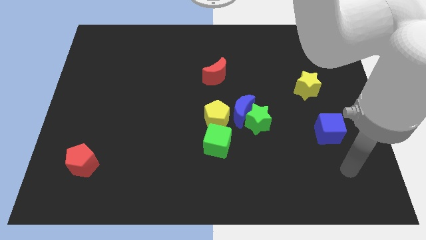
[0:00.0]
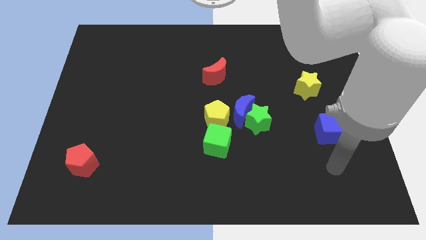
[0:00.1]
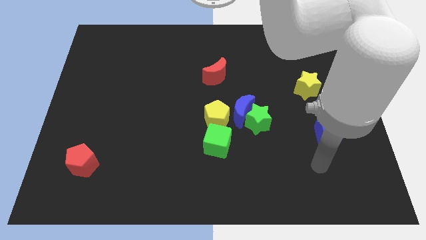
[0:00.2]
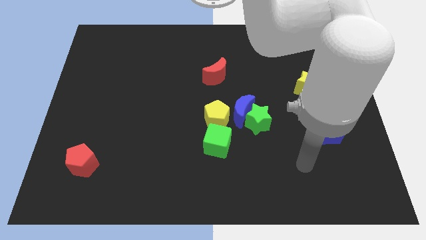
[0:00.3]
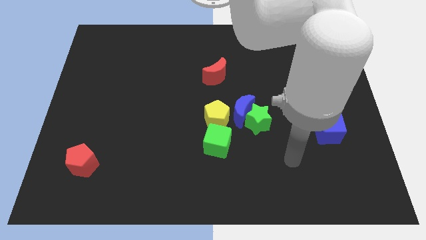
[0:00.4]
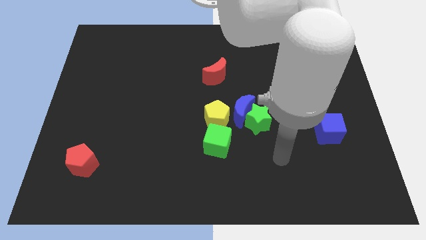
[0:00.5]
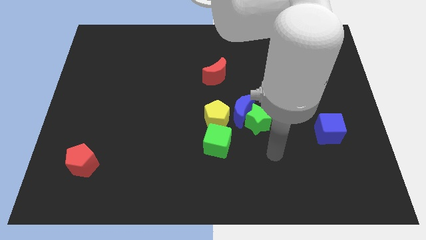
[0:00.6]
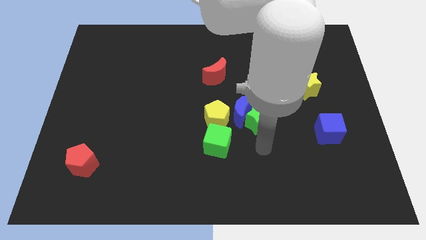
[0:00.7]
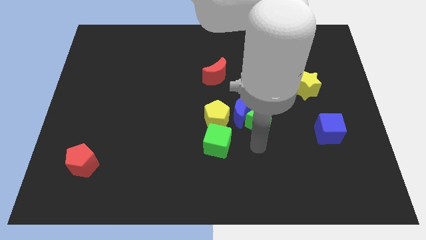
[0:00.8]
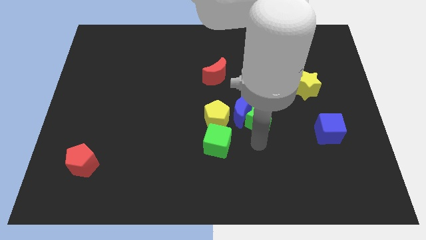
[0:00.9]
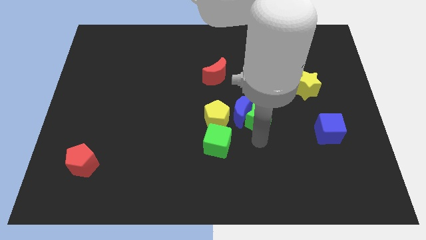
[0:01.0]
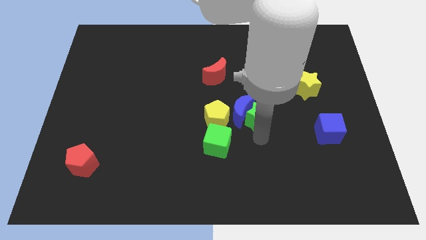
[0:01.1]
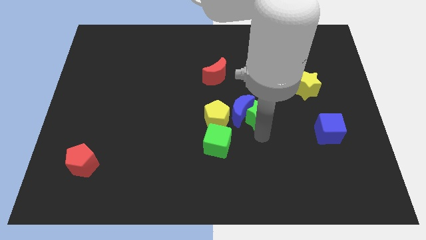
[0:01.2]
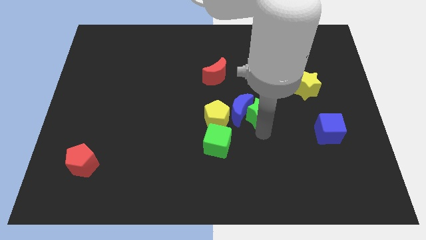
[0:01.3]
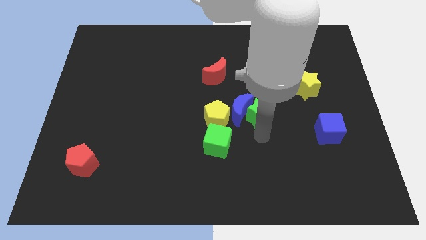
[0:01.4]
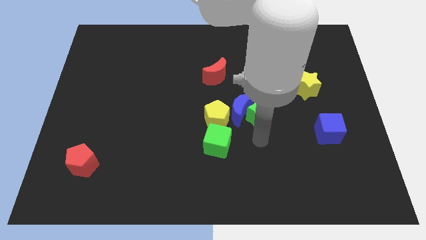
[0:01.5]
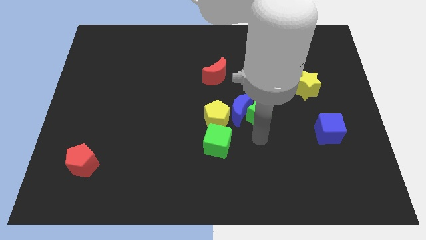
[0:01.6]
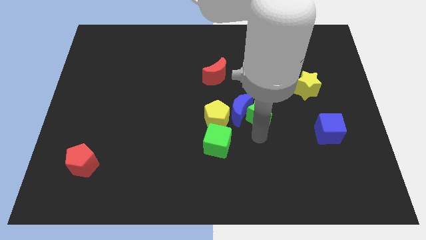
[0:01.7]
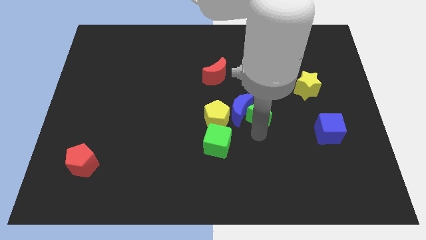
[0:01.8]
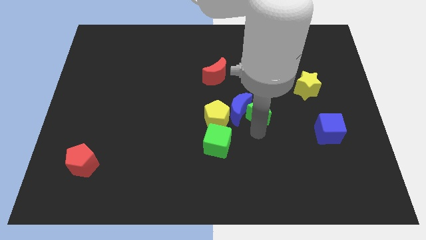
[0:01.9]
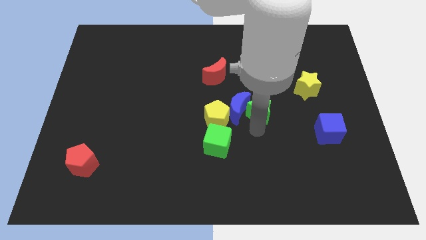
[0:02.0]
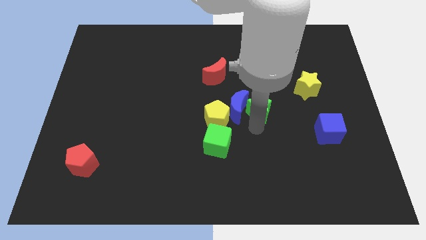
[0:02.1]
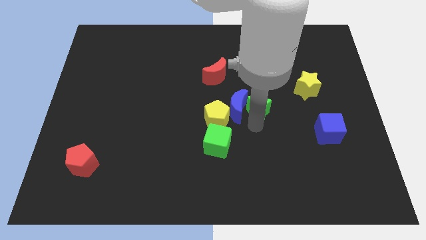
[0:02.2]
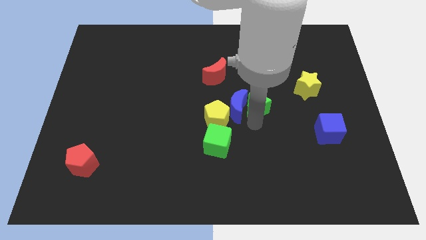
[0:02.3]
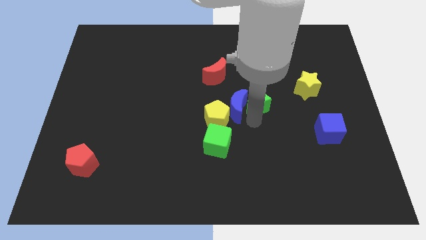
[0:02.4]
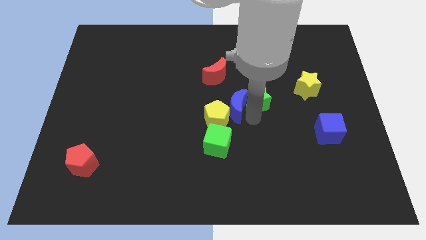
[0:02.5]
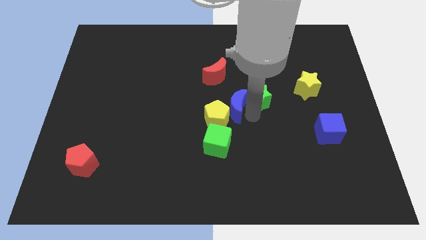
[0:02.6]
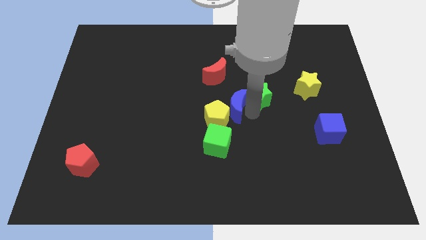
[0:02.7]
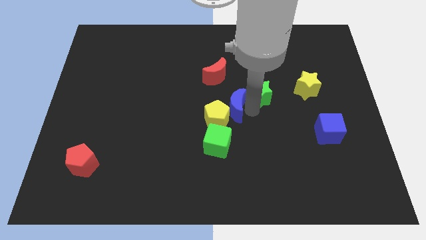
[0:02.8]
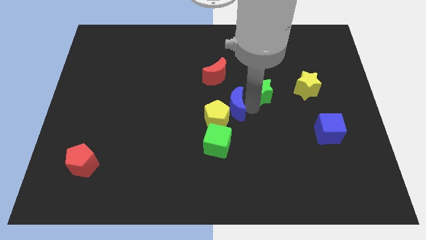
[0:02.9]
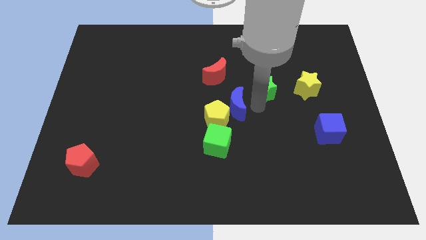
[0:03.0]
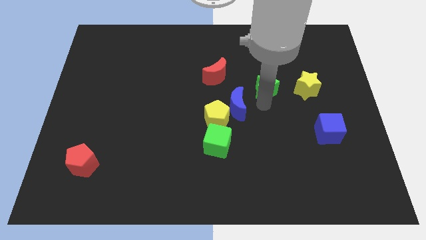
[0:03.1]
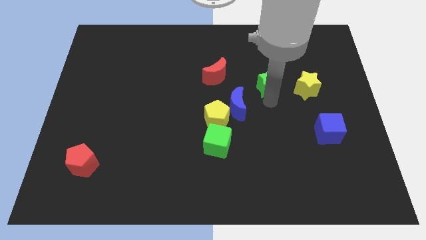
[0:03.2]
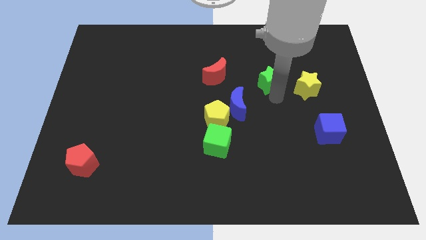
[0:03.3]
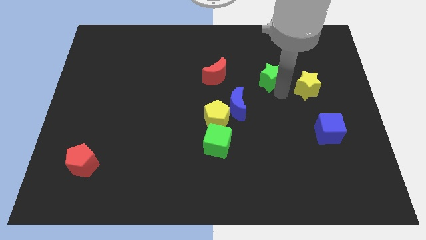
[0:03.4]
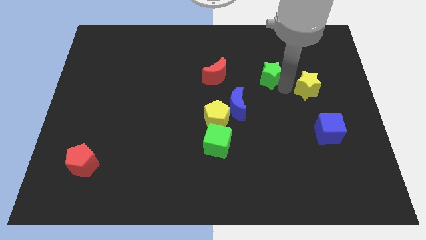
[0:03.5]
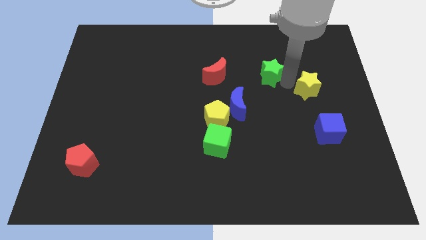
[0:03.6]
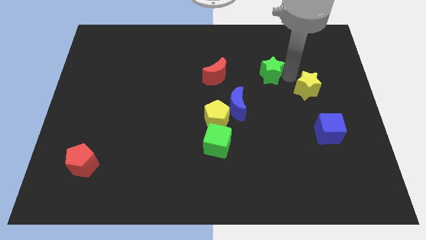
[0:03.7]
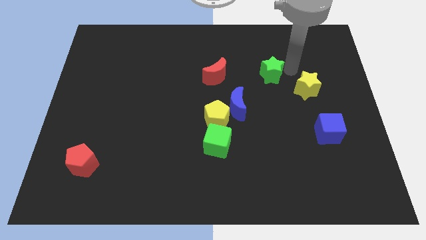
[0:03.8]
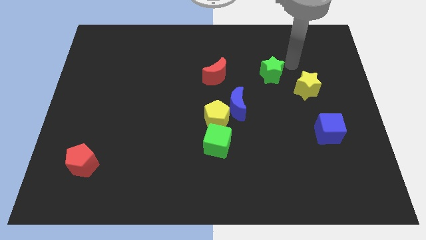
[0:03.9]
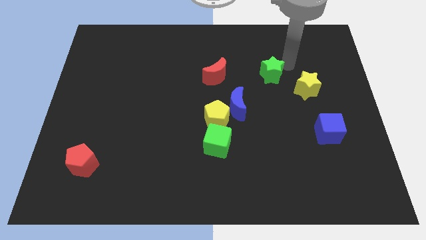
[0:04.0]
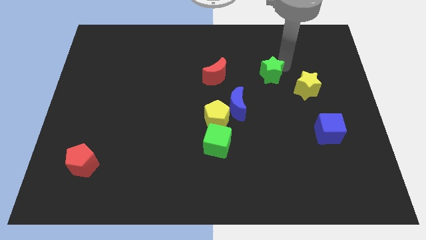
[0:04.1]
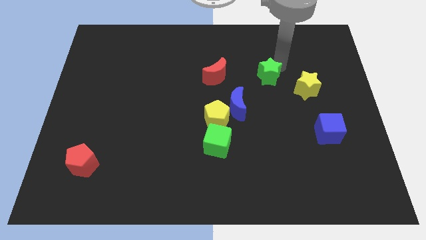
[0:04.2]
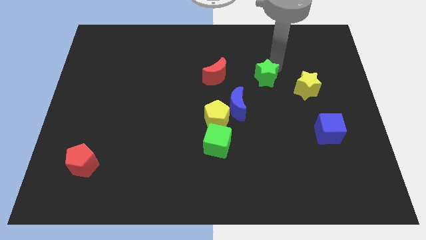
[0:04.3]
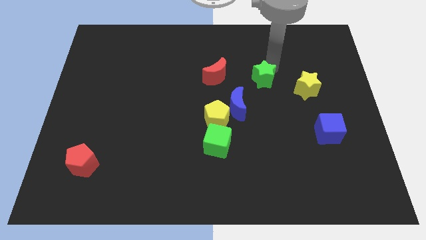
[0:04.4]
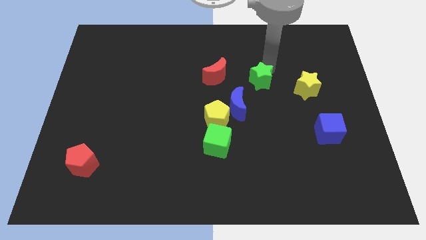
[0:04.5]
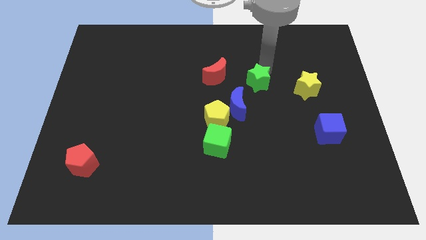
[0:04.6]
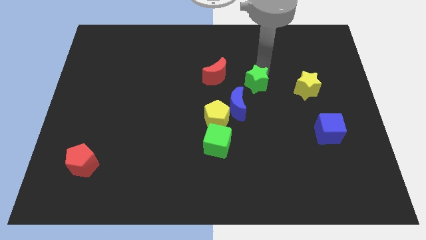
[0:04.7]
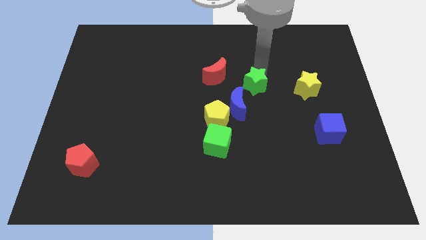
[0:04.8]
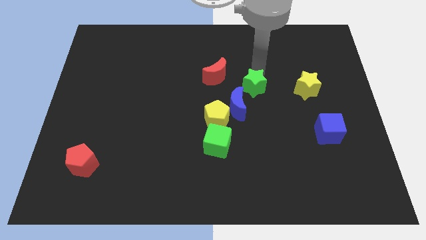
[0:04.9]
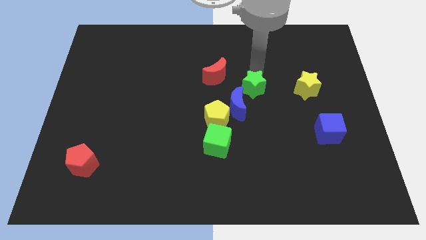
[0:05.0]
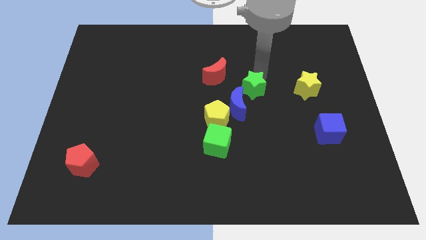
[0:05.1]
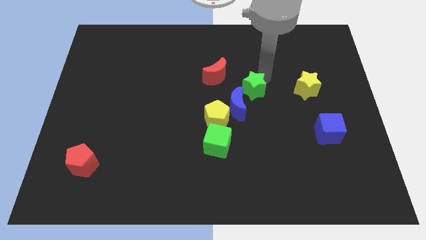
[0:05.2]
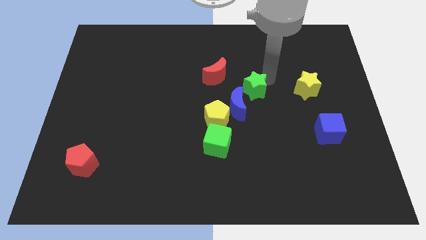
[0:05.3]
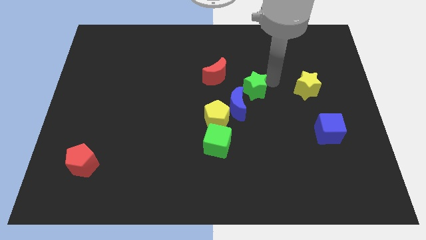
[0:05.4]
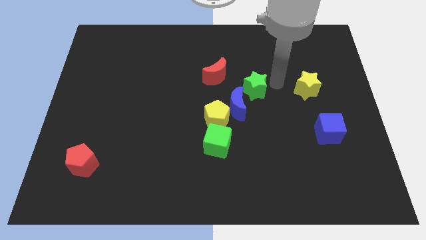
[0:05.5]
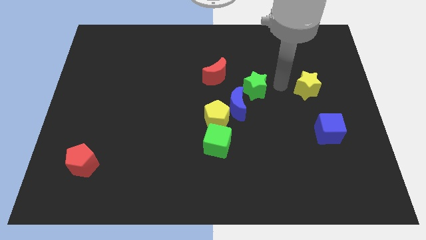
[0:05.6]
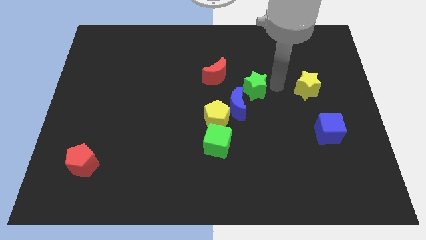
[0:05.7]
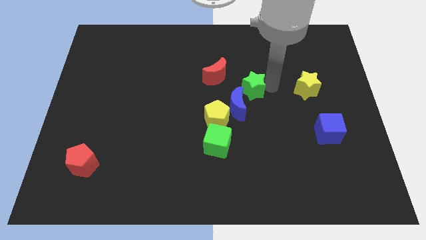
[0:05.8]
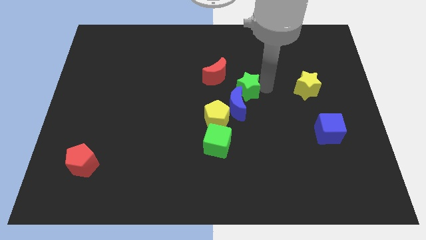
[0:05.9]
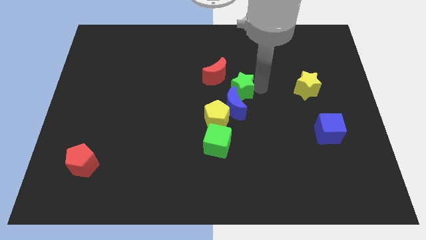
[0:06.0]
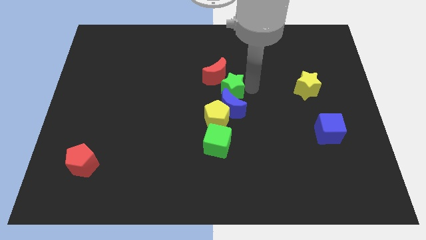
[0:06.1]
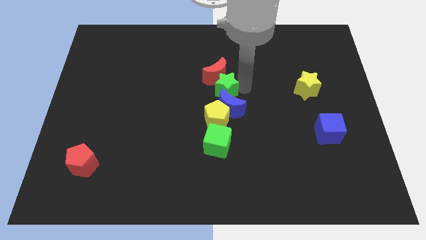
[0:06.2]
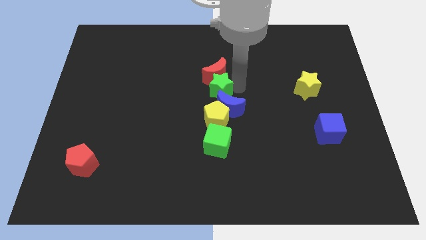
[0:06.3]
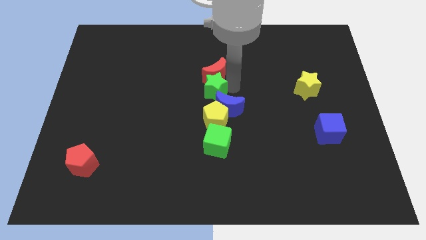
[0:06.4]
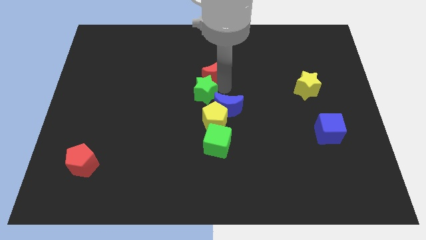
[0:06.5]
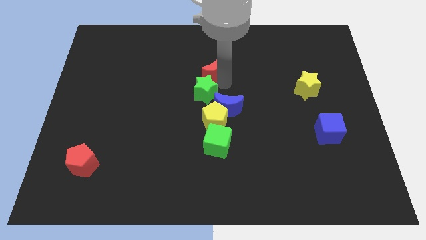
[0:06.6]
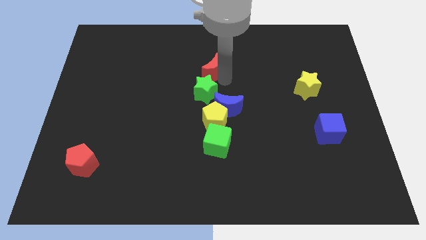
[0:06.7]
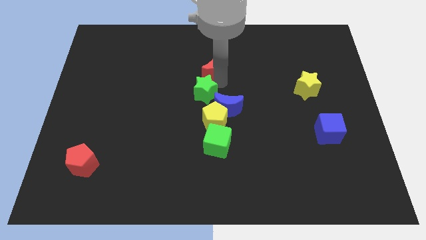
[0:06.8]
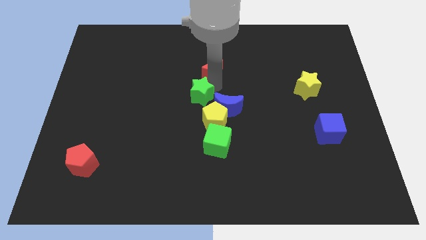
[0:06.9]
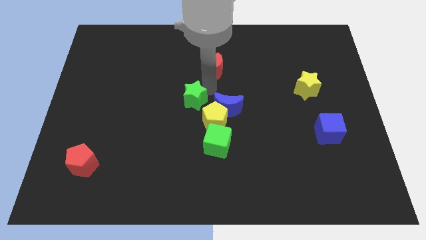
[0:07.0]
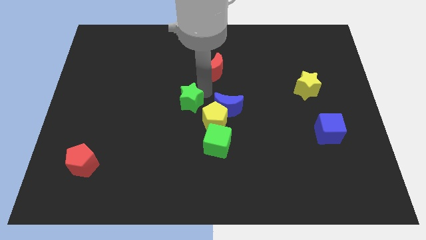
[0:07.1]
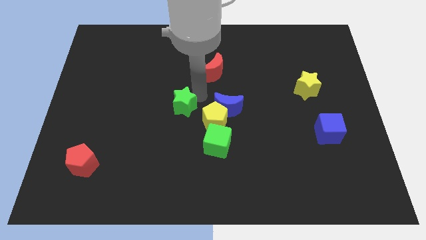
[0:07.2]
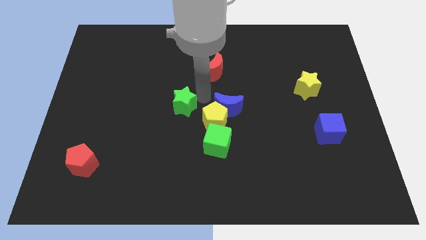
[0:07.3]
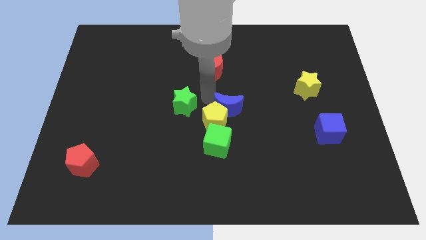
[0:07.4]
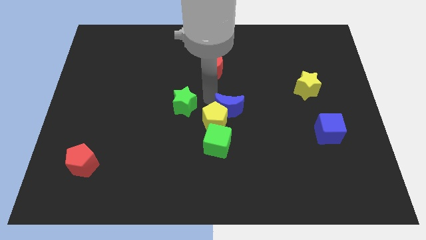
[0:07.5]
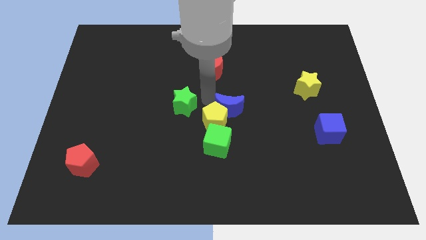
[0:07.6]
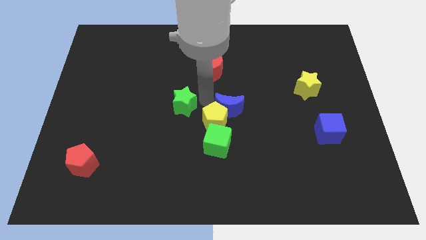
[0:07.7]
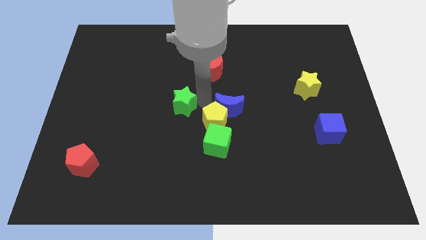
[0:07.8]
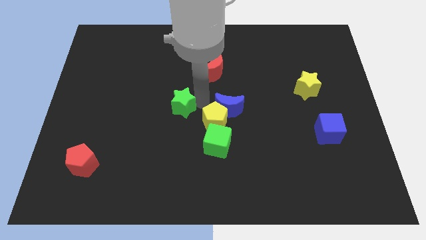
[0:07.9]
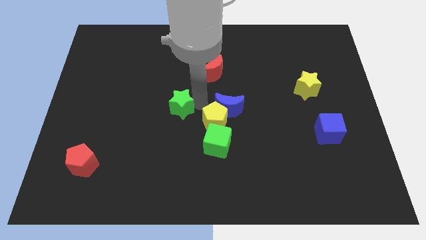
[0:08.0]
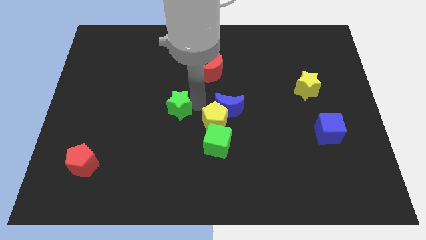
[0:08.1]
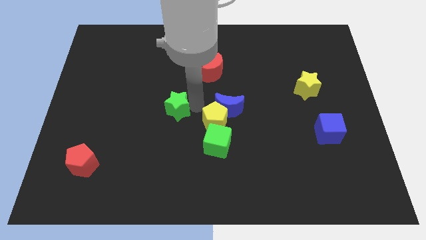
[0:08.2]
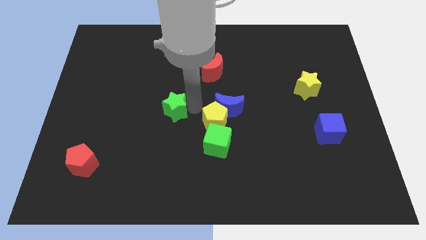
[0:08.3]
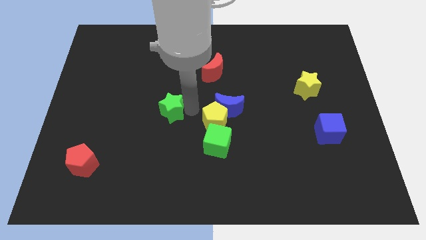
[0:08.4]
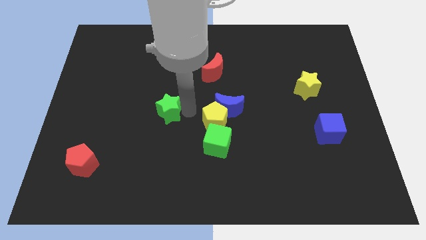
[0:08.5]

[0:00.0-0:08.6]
slide the green star left
